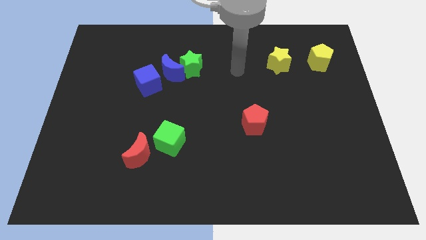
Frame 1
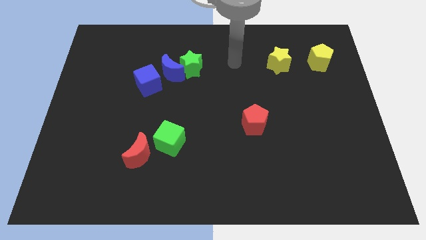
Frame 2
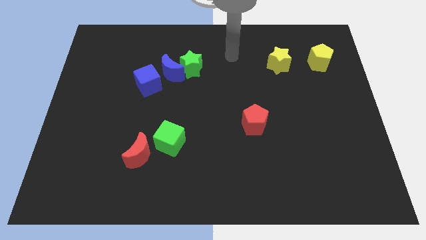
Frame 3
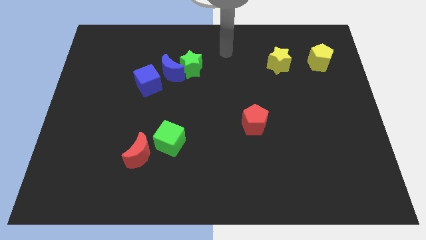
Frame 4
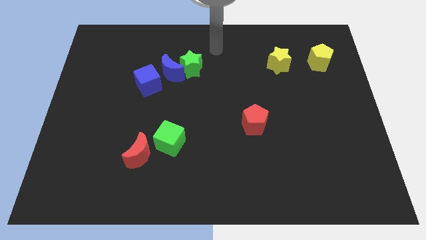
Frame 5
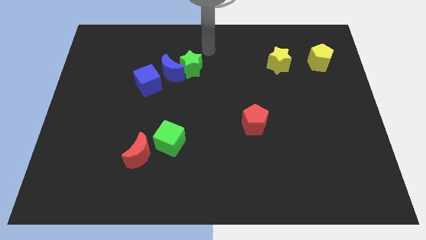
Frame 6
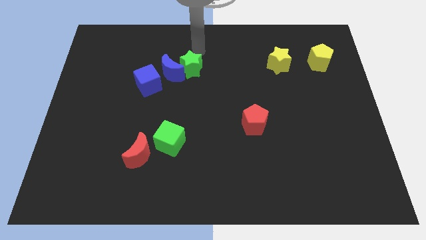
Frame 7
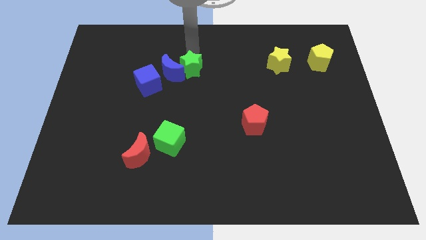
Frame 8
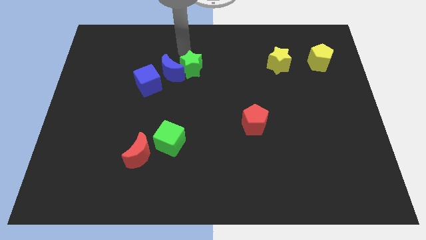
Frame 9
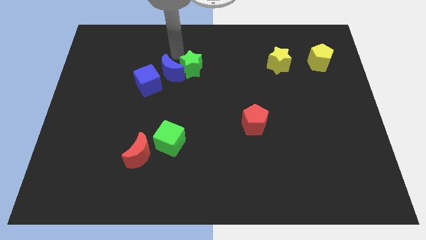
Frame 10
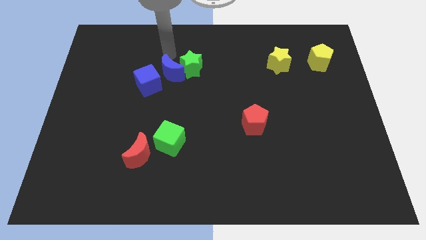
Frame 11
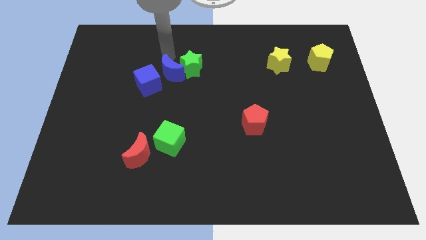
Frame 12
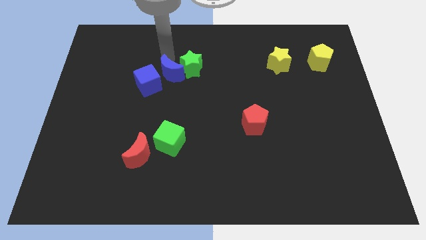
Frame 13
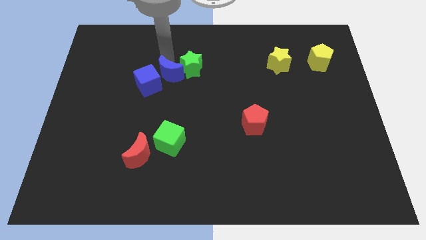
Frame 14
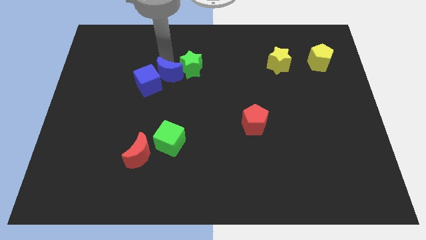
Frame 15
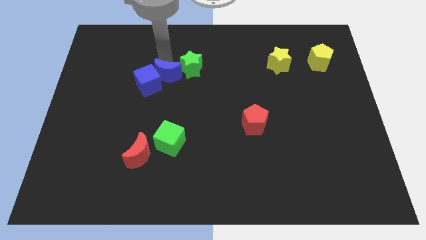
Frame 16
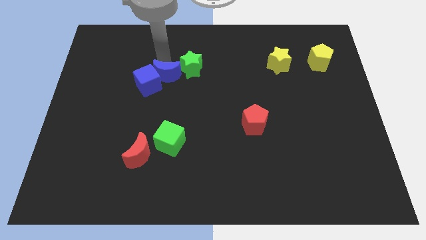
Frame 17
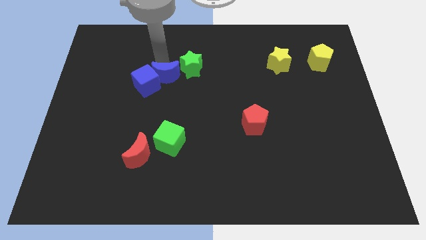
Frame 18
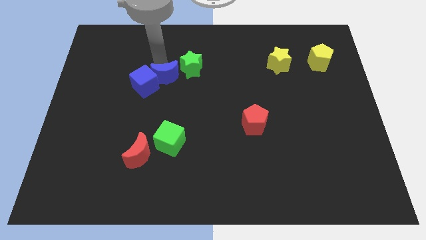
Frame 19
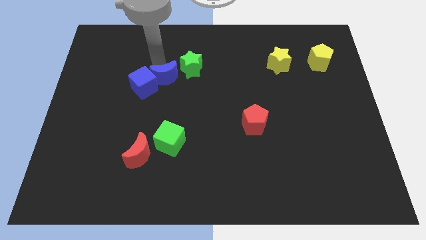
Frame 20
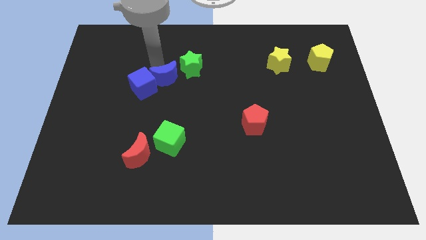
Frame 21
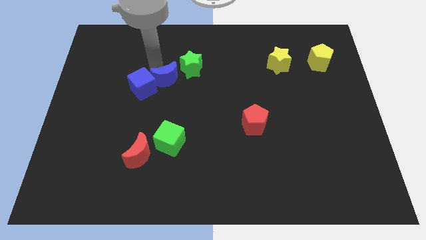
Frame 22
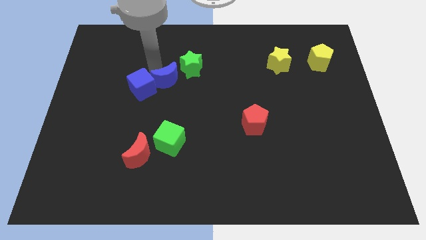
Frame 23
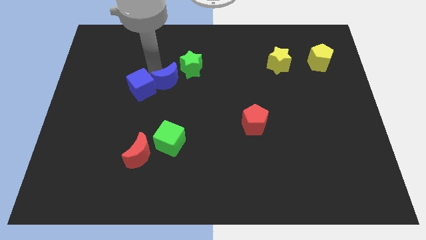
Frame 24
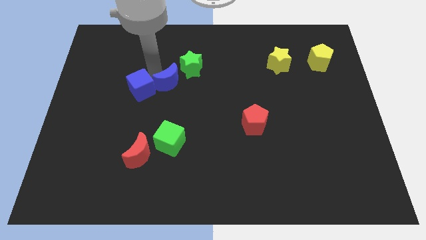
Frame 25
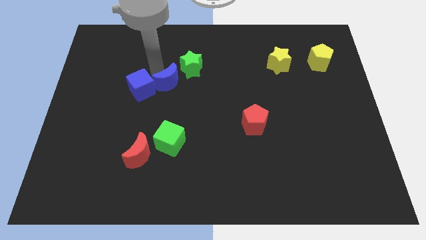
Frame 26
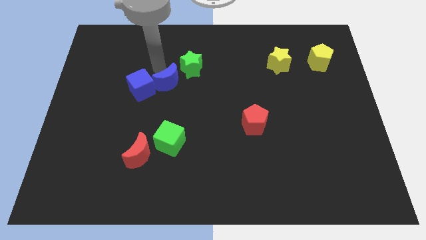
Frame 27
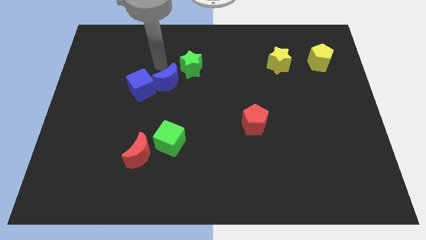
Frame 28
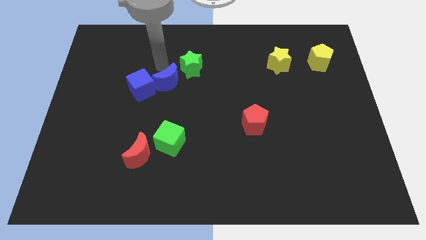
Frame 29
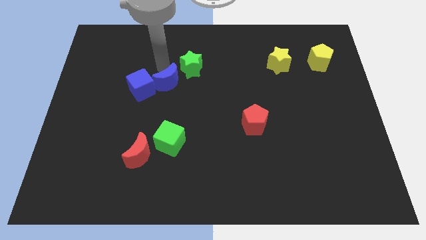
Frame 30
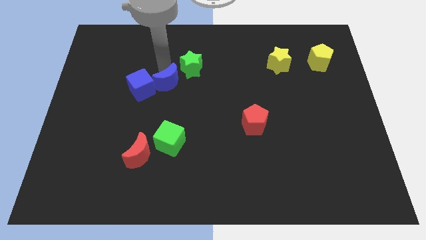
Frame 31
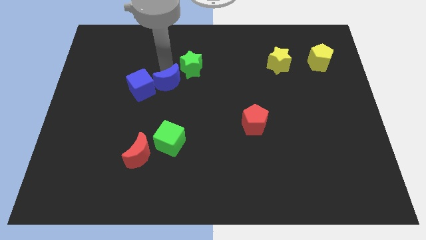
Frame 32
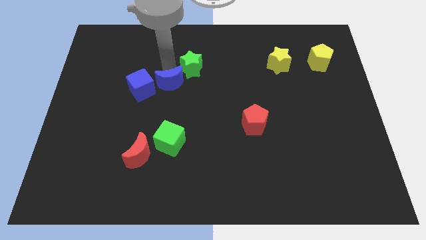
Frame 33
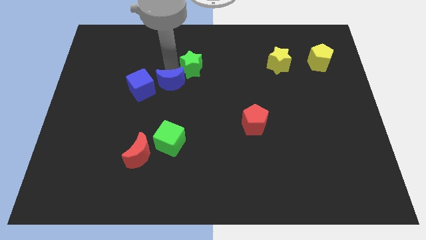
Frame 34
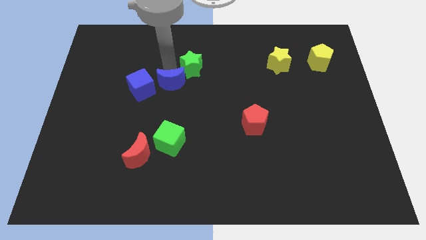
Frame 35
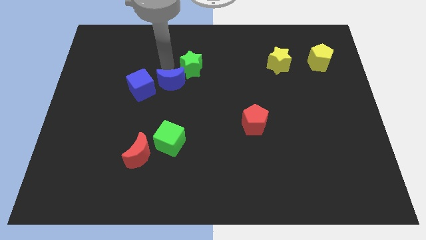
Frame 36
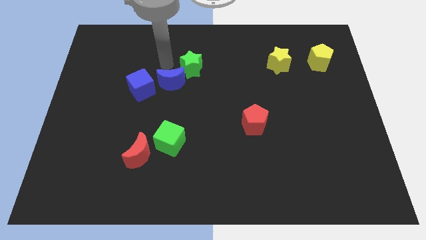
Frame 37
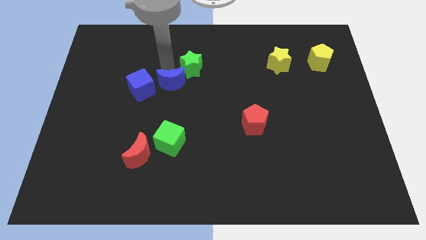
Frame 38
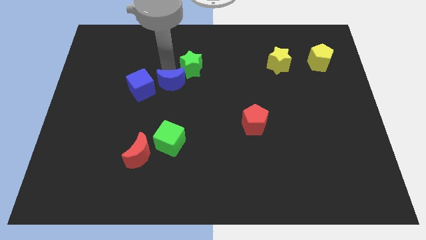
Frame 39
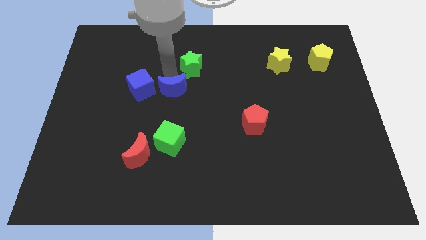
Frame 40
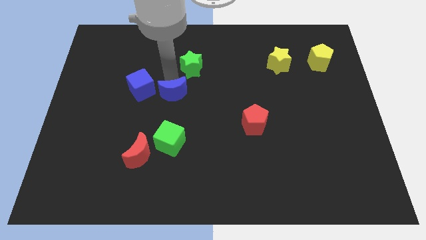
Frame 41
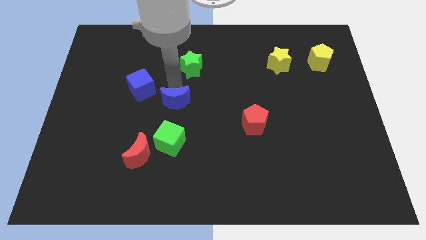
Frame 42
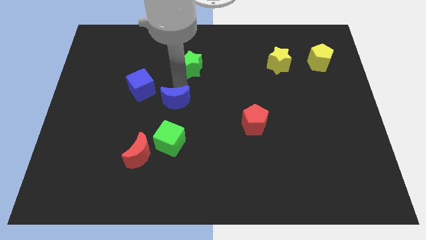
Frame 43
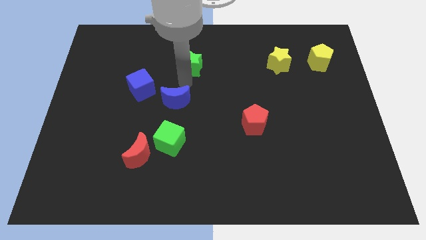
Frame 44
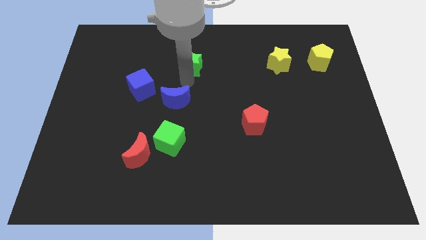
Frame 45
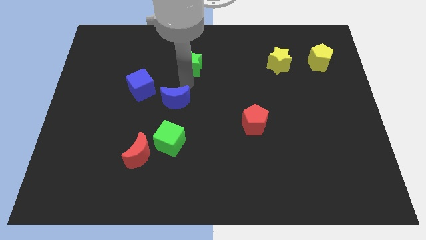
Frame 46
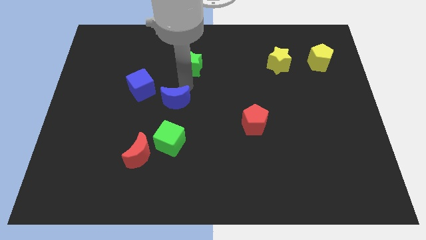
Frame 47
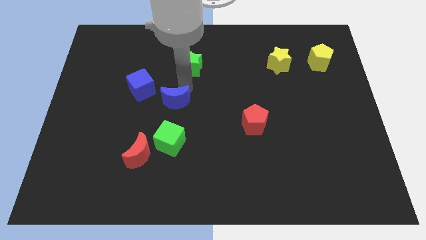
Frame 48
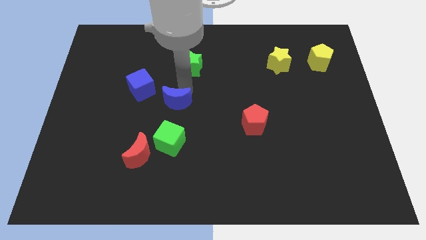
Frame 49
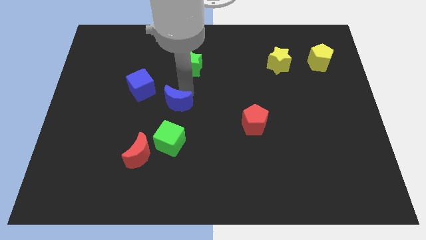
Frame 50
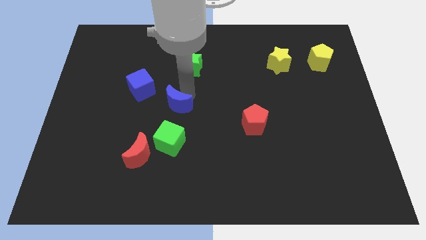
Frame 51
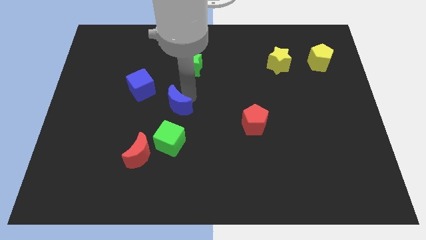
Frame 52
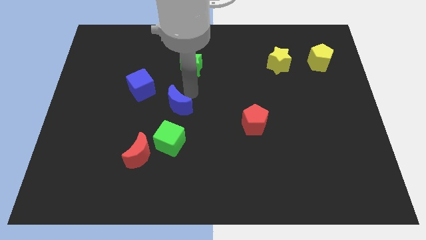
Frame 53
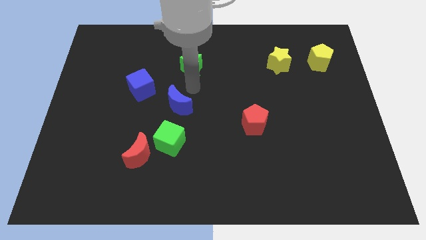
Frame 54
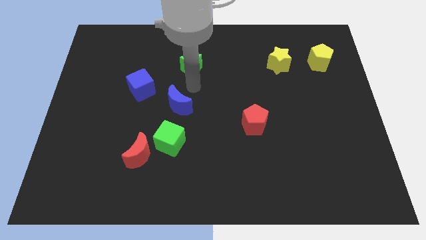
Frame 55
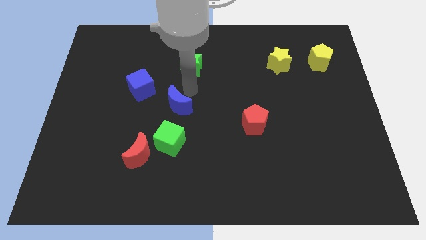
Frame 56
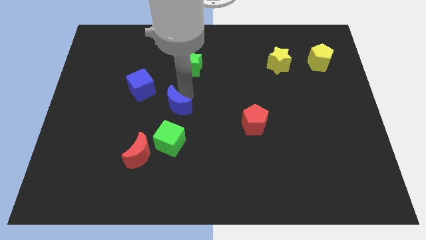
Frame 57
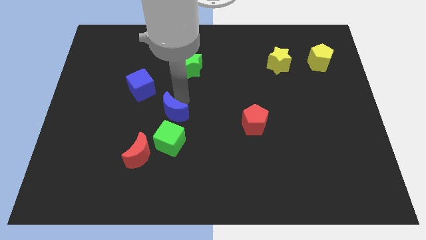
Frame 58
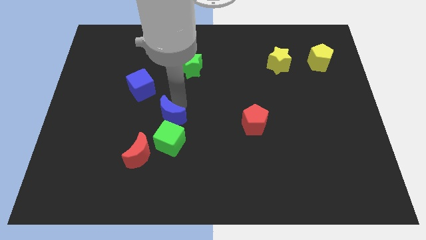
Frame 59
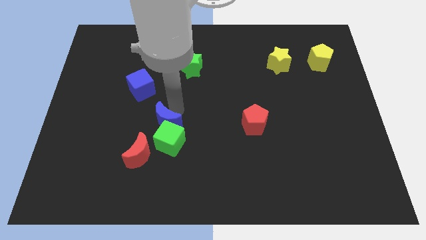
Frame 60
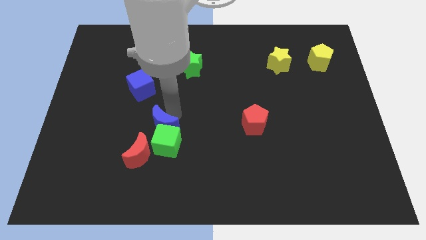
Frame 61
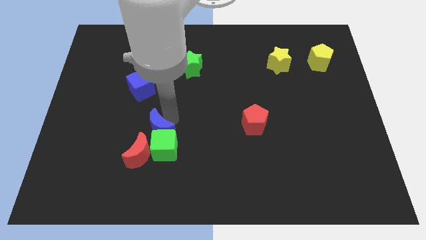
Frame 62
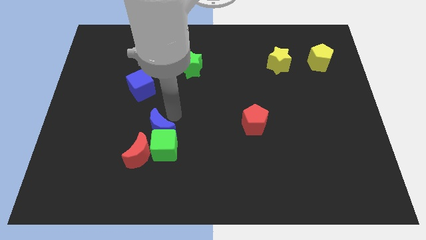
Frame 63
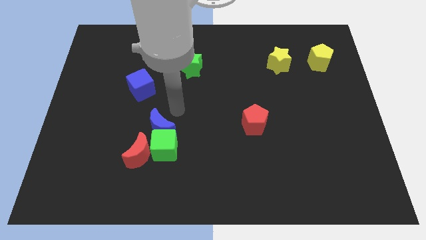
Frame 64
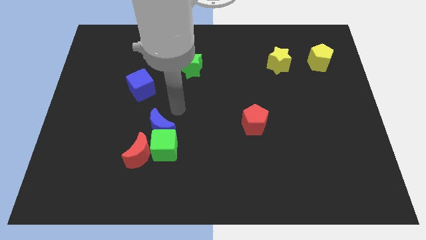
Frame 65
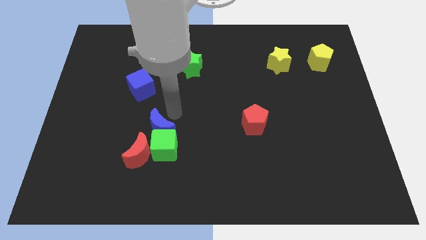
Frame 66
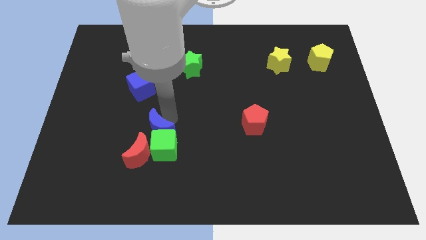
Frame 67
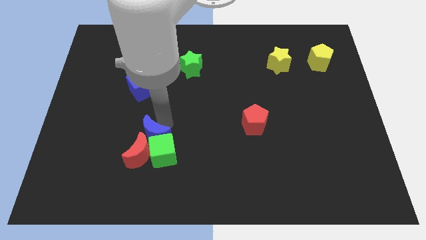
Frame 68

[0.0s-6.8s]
push the blue moon to the red moon

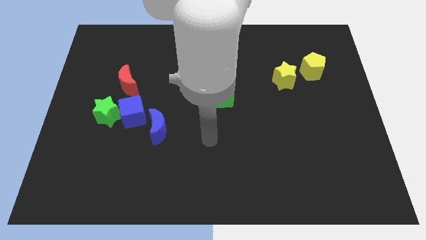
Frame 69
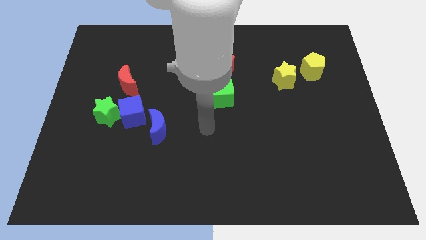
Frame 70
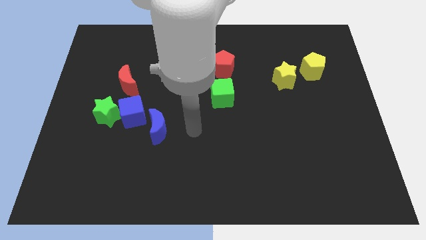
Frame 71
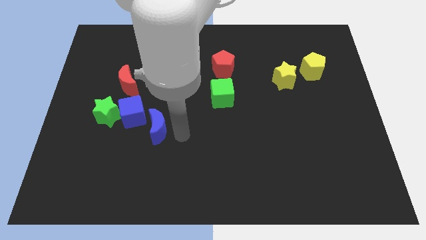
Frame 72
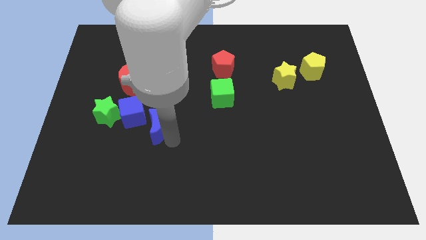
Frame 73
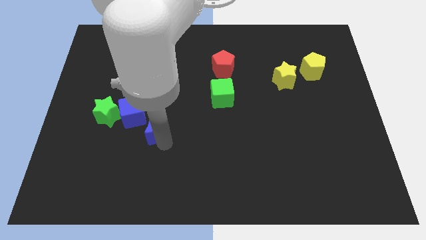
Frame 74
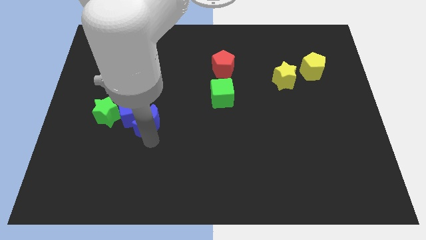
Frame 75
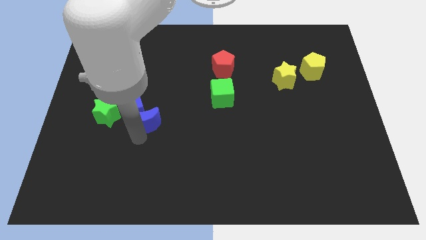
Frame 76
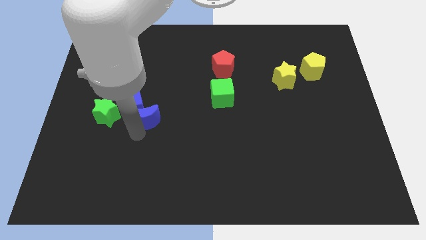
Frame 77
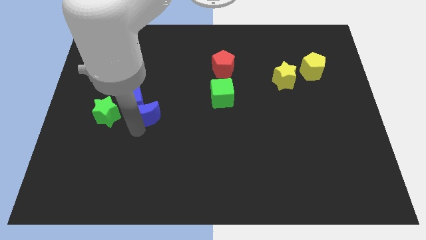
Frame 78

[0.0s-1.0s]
push the blue cube next to the red moon
